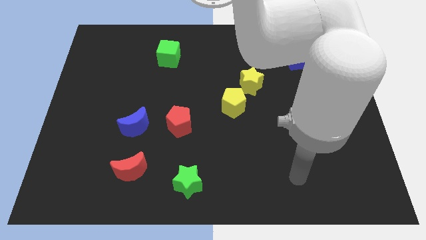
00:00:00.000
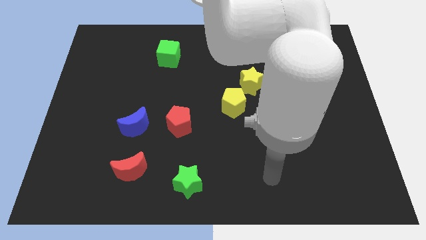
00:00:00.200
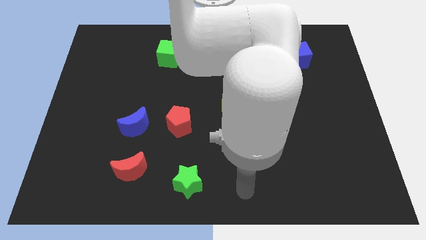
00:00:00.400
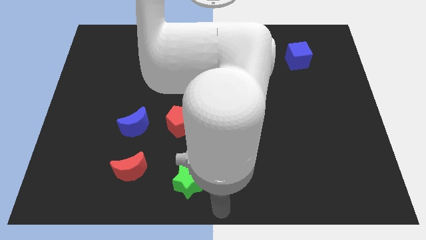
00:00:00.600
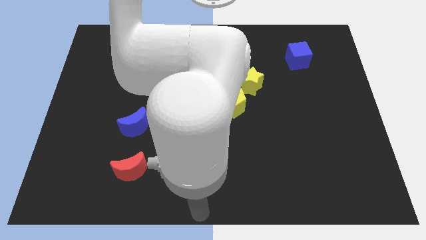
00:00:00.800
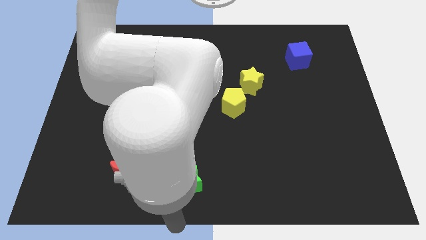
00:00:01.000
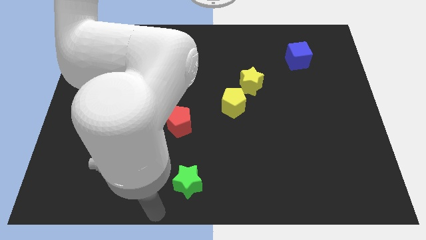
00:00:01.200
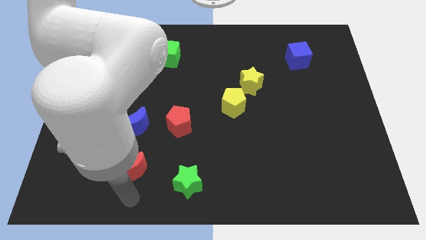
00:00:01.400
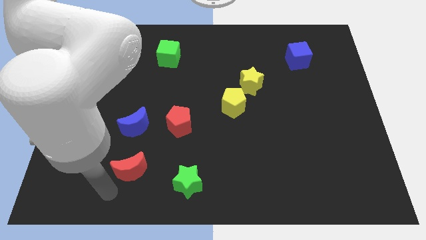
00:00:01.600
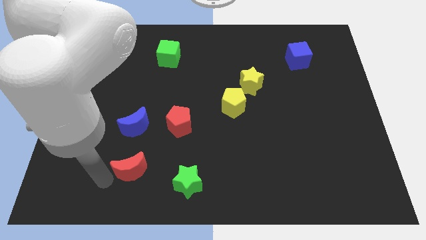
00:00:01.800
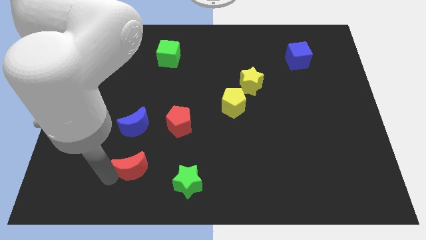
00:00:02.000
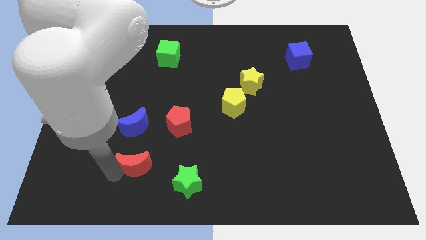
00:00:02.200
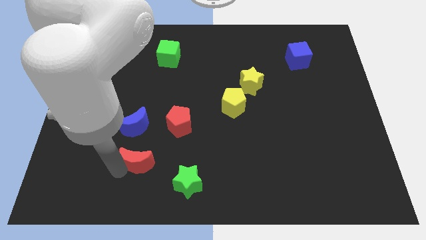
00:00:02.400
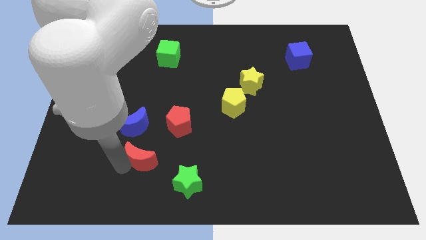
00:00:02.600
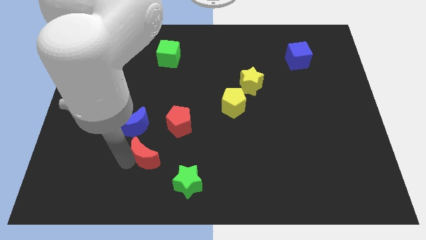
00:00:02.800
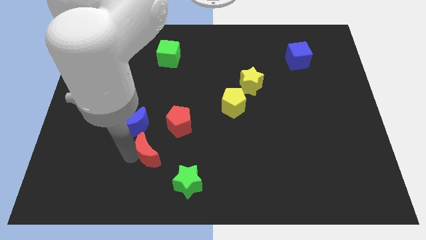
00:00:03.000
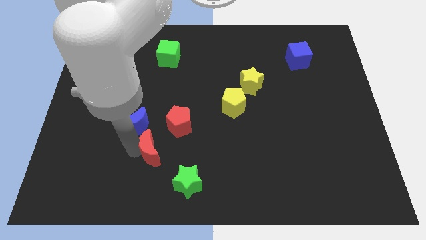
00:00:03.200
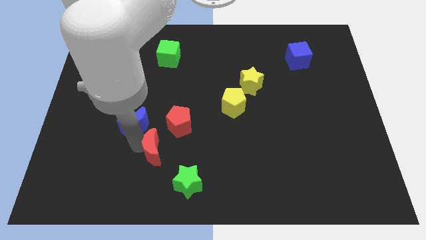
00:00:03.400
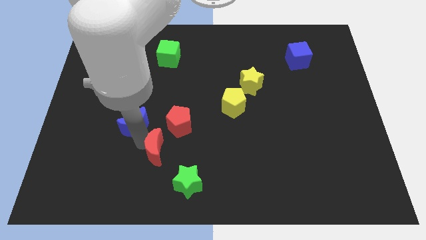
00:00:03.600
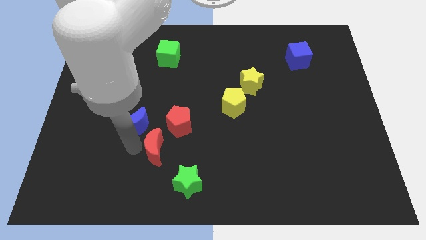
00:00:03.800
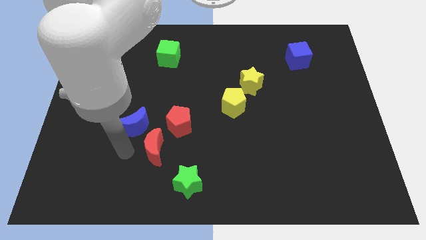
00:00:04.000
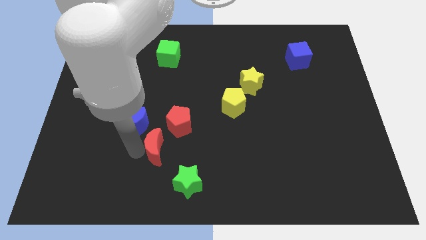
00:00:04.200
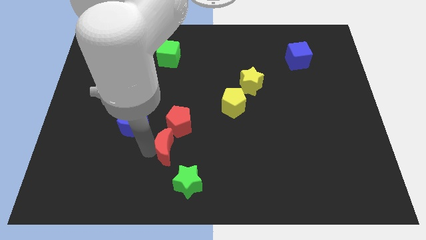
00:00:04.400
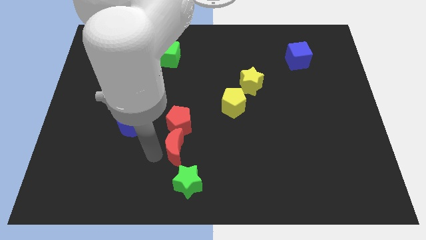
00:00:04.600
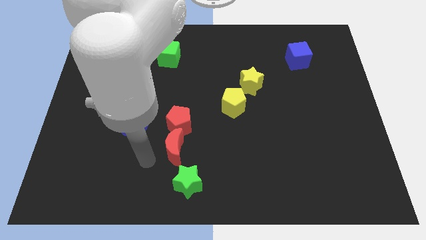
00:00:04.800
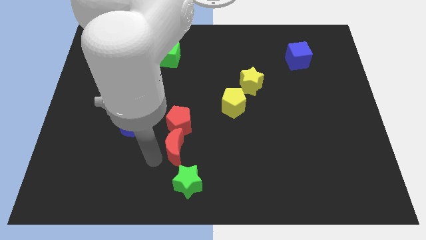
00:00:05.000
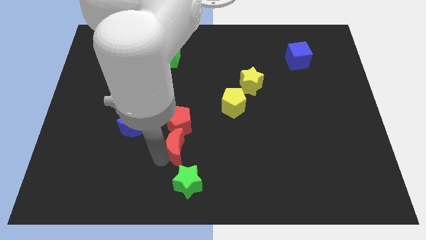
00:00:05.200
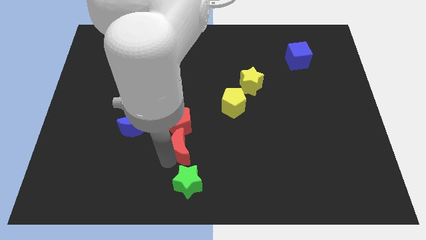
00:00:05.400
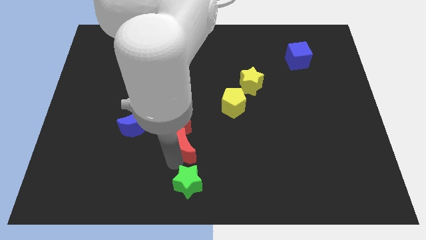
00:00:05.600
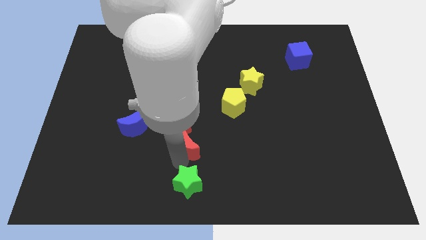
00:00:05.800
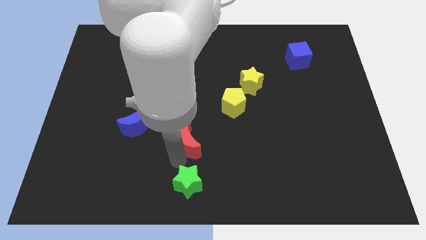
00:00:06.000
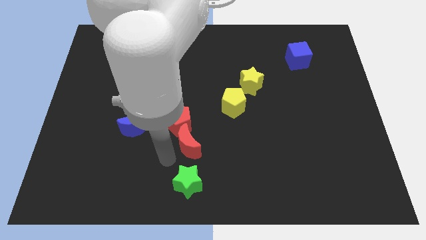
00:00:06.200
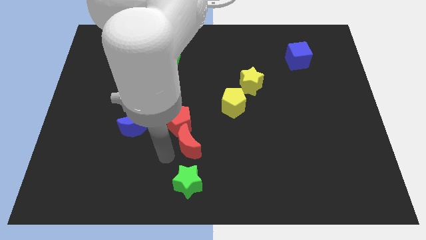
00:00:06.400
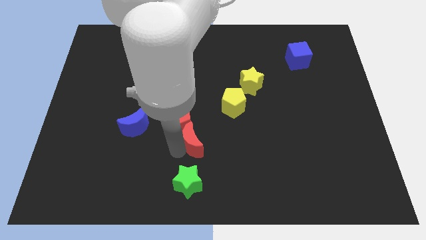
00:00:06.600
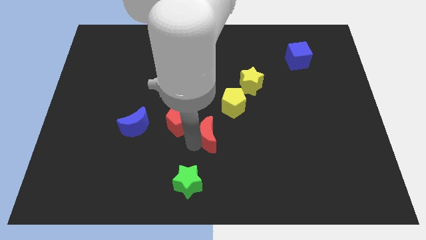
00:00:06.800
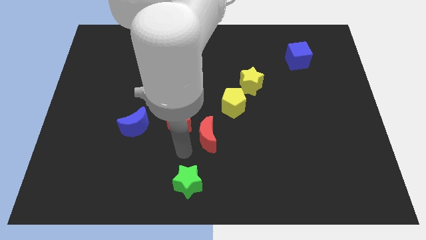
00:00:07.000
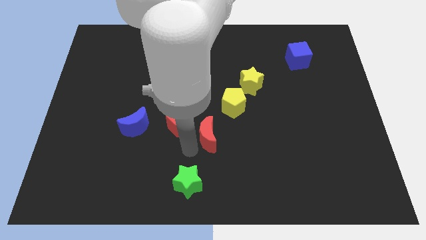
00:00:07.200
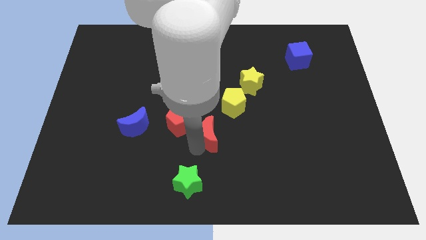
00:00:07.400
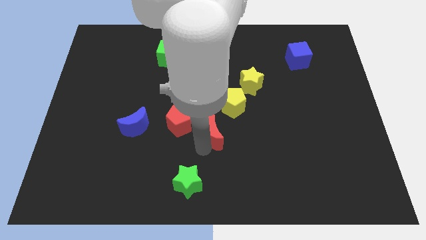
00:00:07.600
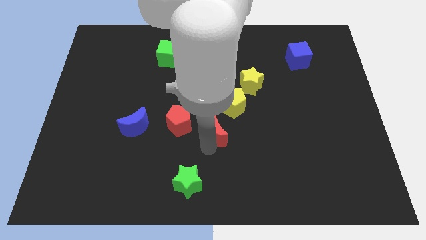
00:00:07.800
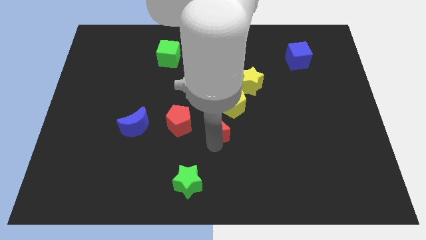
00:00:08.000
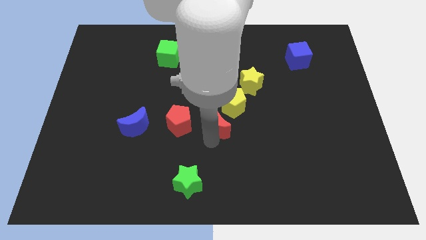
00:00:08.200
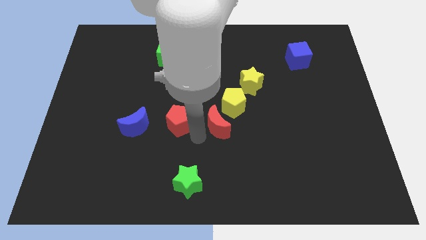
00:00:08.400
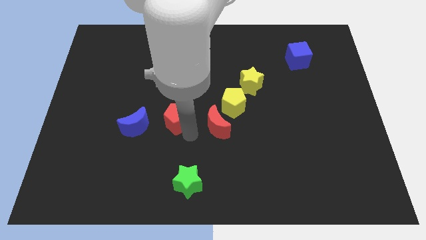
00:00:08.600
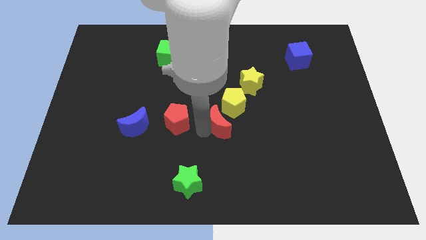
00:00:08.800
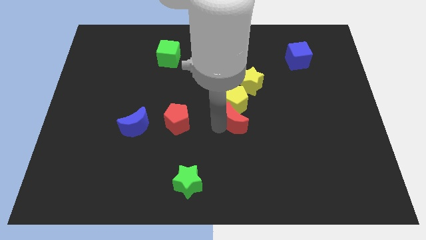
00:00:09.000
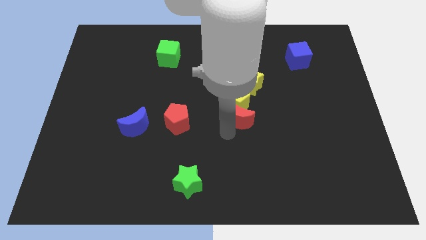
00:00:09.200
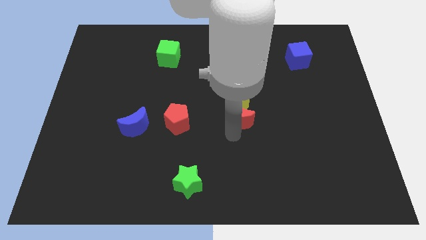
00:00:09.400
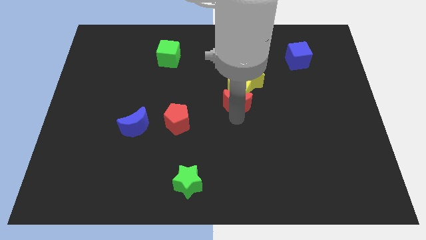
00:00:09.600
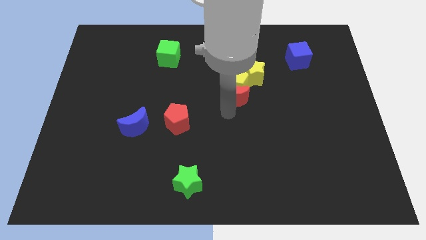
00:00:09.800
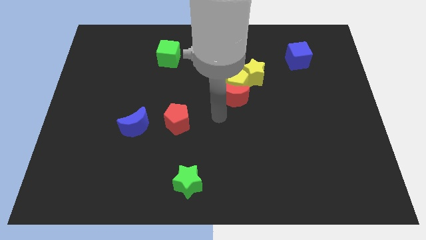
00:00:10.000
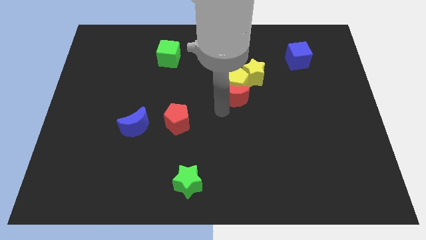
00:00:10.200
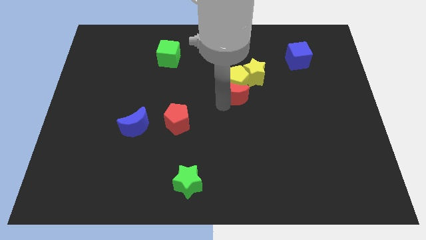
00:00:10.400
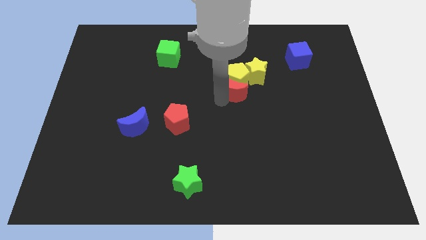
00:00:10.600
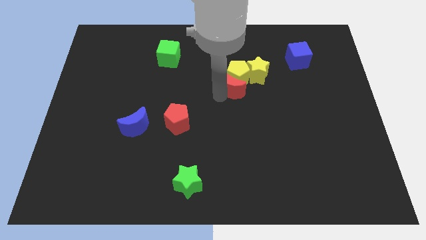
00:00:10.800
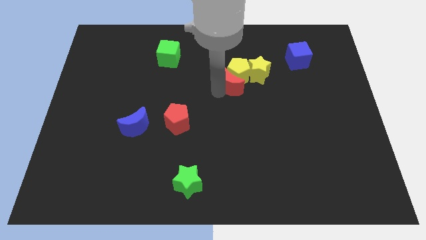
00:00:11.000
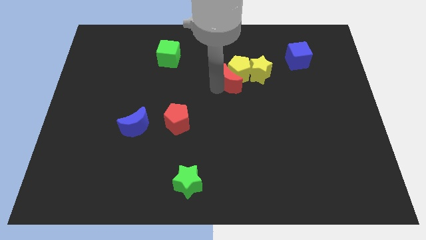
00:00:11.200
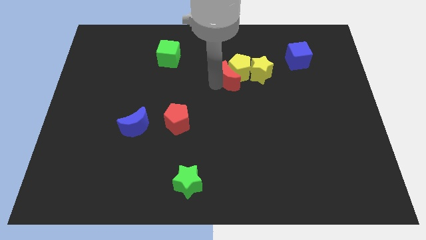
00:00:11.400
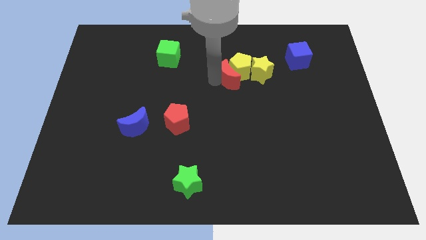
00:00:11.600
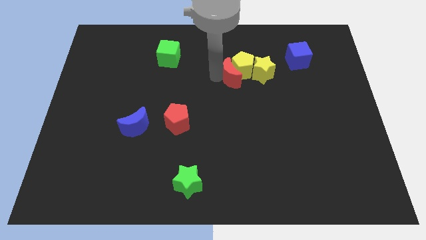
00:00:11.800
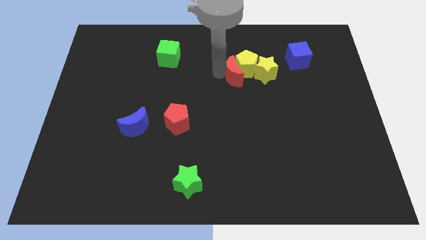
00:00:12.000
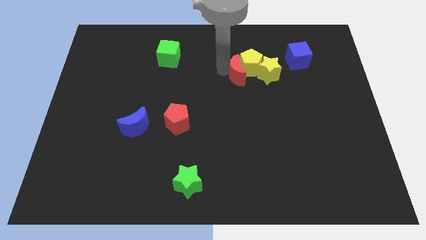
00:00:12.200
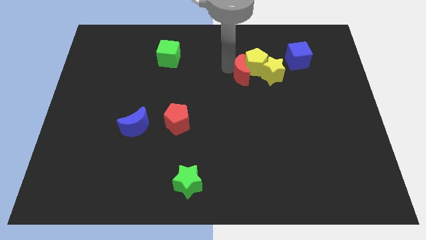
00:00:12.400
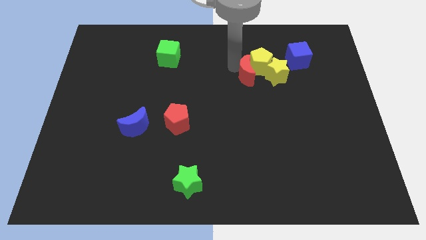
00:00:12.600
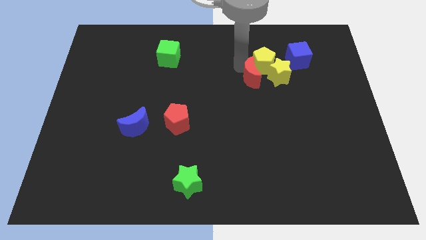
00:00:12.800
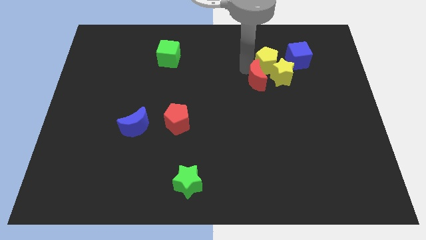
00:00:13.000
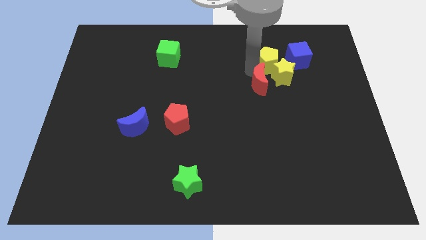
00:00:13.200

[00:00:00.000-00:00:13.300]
push the red moon close to the yellow star
